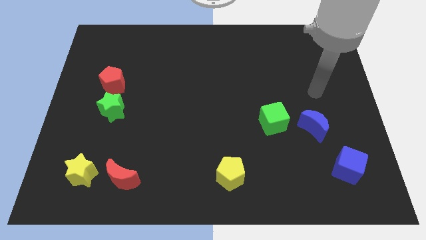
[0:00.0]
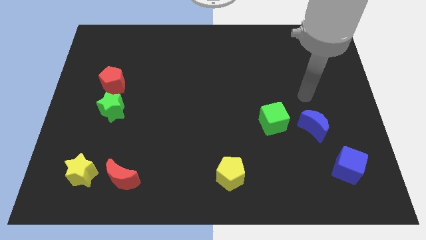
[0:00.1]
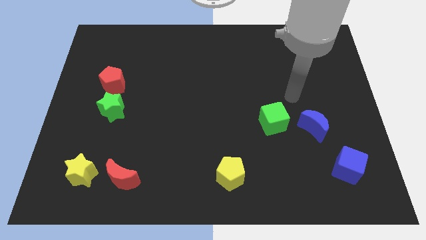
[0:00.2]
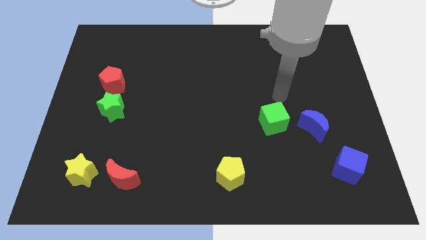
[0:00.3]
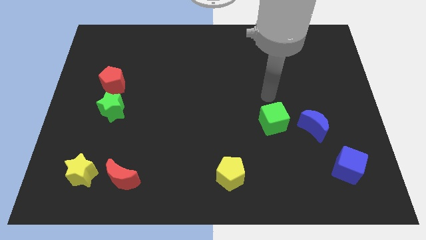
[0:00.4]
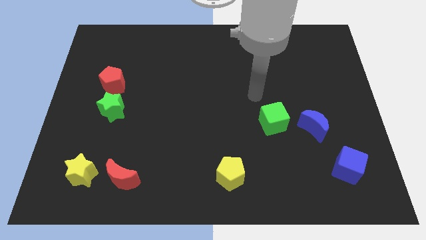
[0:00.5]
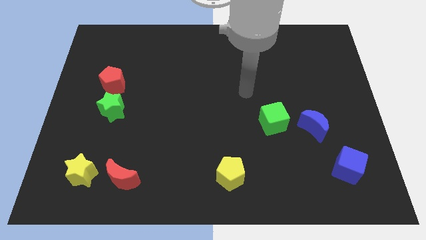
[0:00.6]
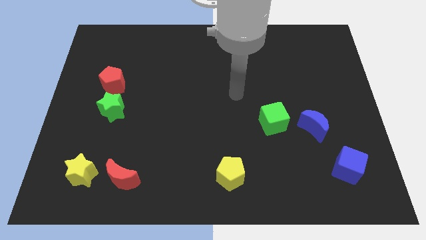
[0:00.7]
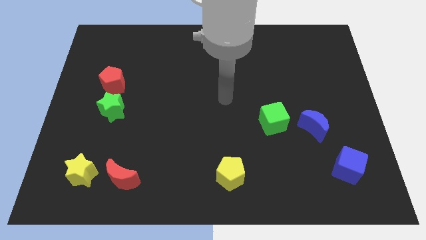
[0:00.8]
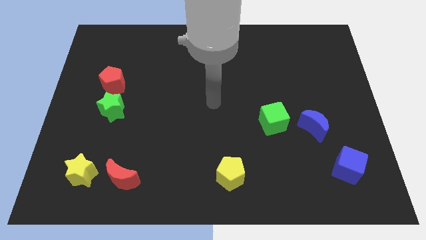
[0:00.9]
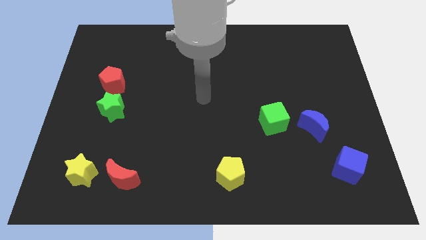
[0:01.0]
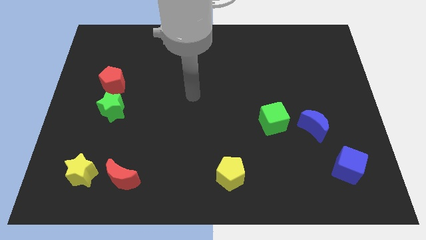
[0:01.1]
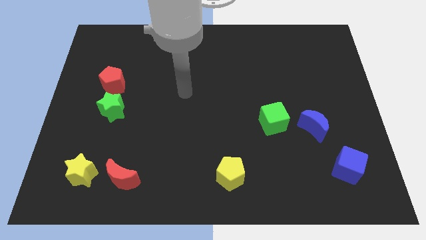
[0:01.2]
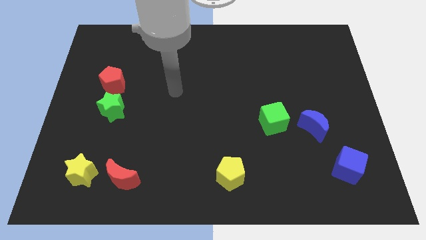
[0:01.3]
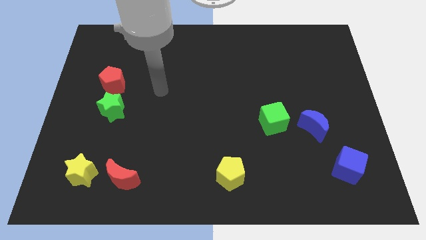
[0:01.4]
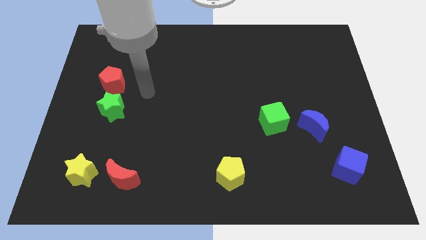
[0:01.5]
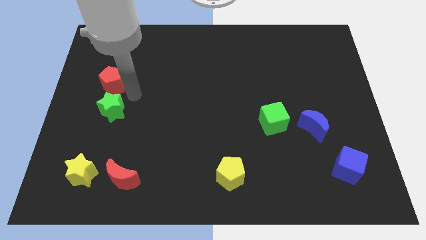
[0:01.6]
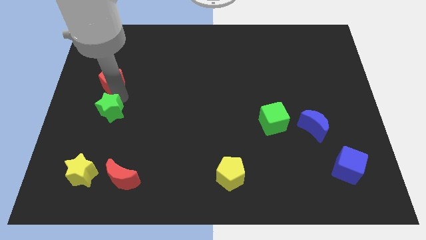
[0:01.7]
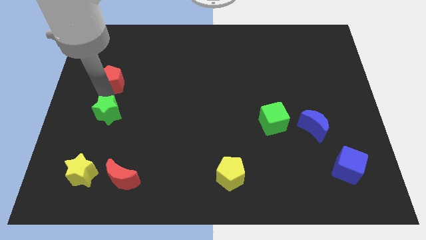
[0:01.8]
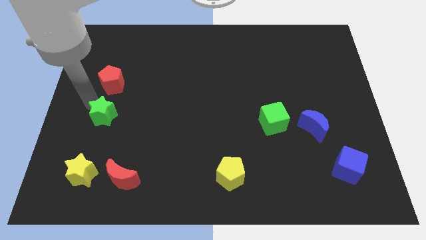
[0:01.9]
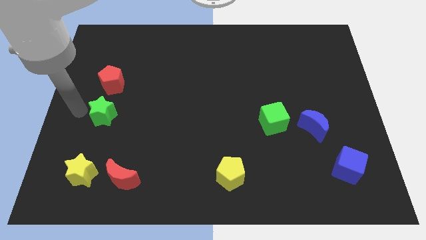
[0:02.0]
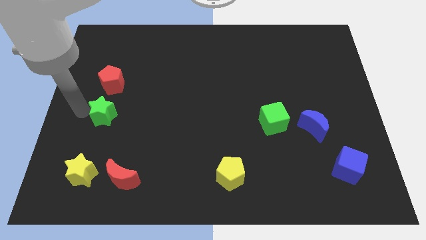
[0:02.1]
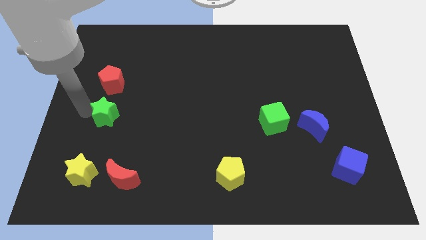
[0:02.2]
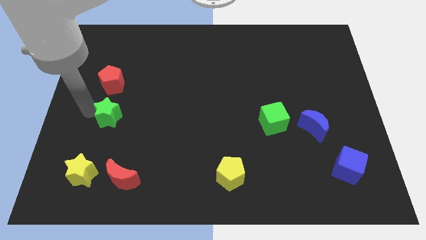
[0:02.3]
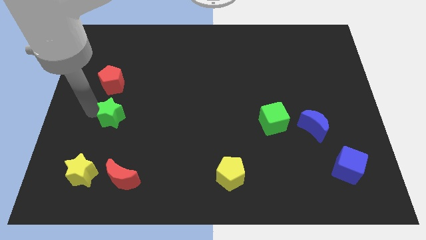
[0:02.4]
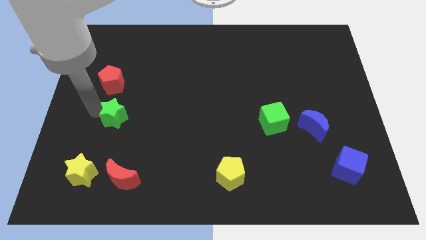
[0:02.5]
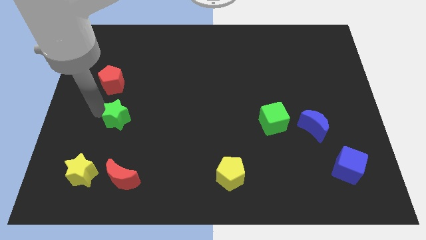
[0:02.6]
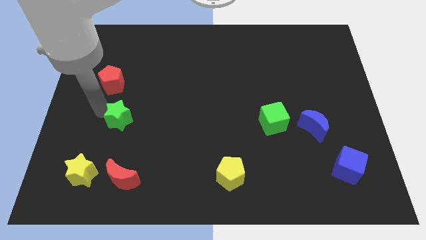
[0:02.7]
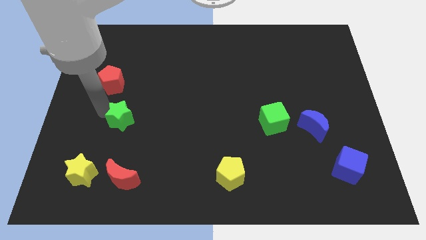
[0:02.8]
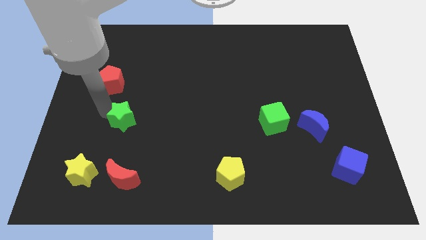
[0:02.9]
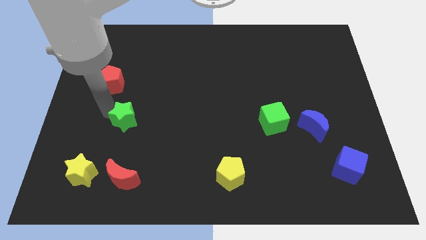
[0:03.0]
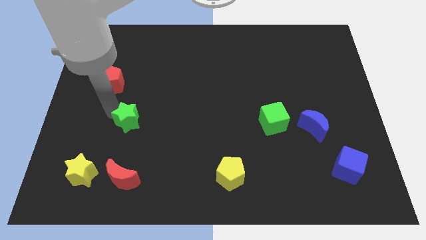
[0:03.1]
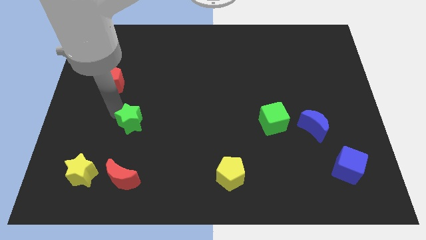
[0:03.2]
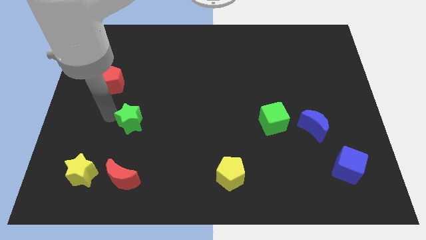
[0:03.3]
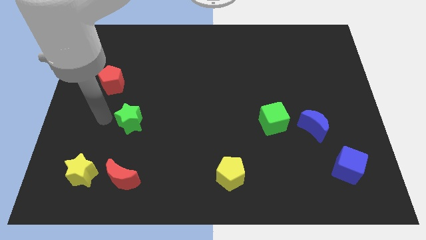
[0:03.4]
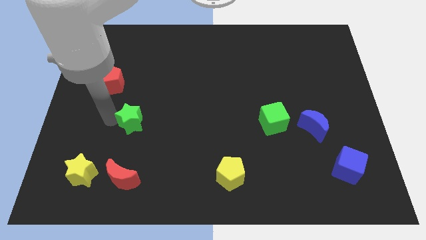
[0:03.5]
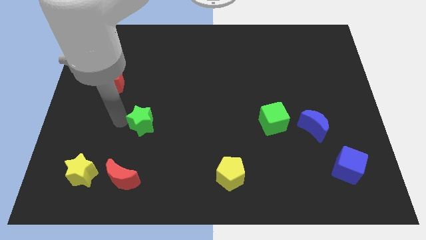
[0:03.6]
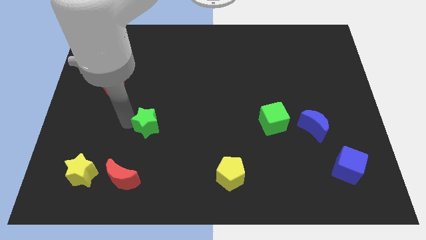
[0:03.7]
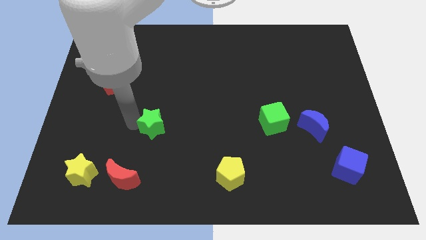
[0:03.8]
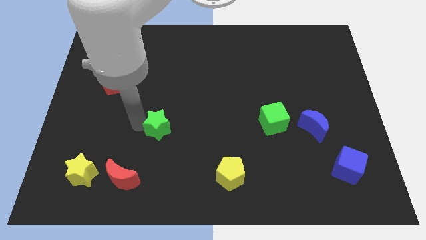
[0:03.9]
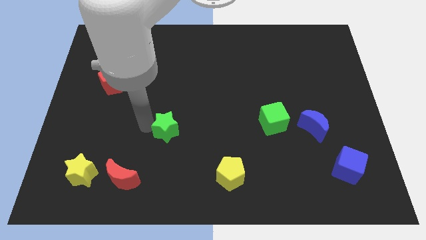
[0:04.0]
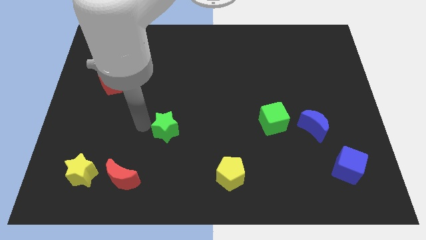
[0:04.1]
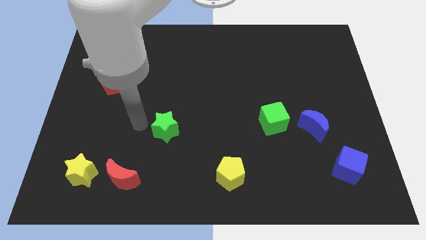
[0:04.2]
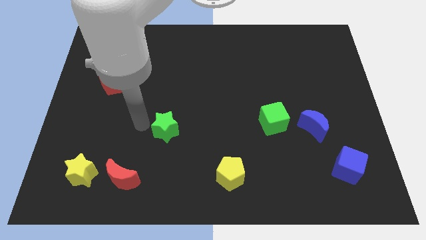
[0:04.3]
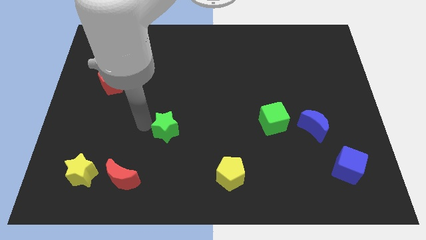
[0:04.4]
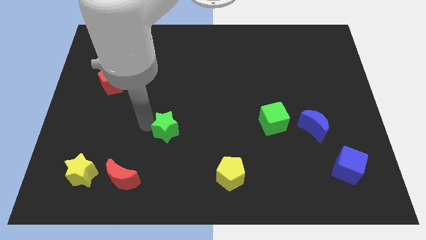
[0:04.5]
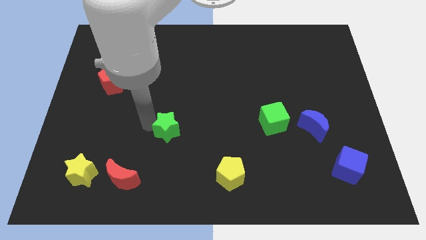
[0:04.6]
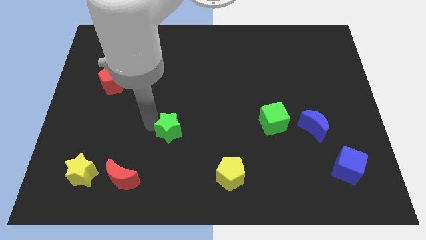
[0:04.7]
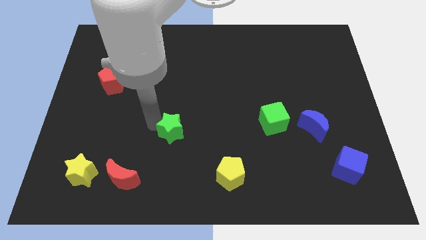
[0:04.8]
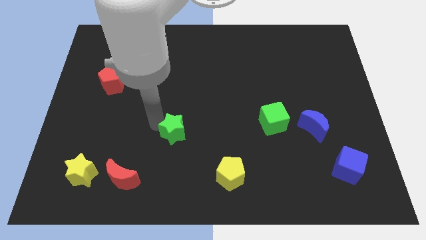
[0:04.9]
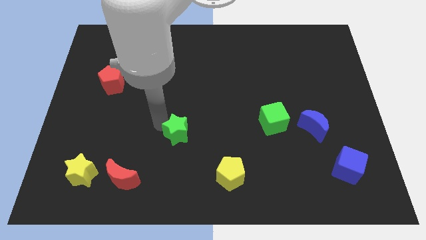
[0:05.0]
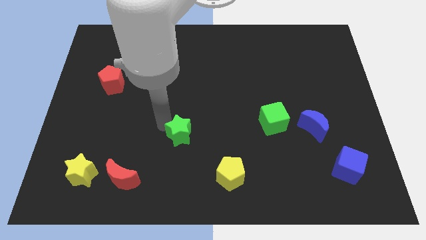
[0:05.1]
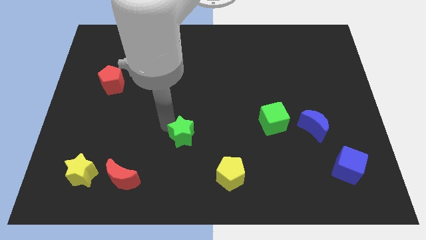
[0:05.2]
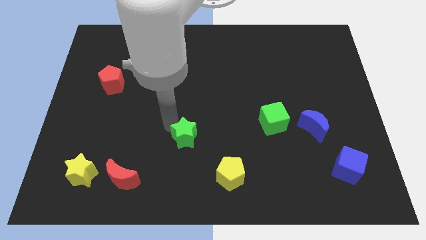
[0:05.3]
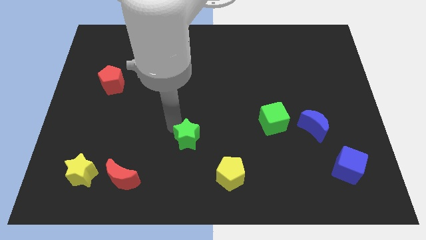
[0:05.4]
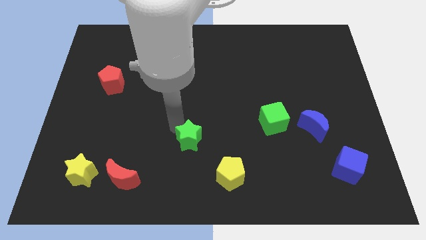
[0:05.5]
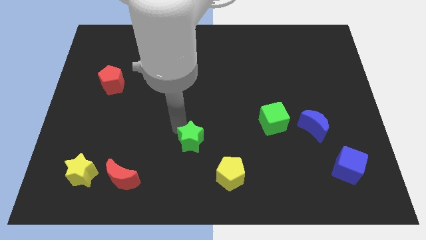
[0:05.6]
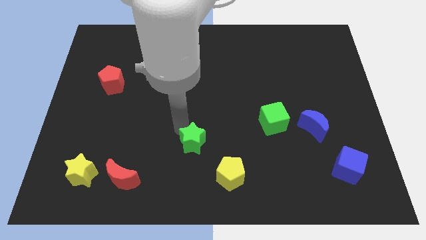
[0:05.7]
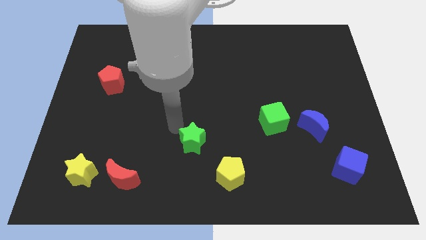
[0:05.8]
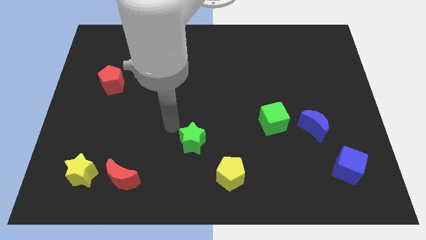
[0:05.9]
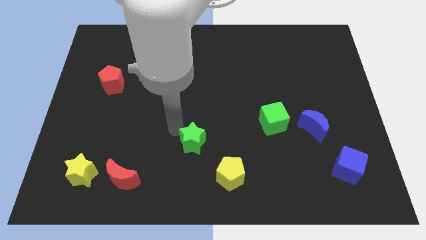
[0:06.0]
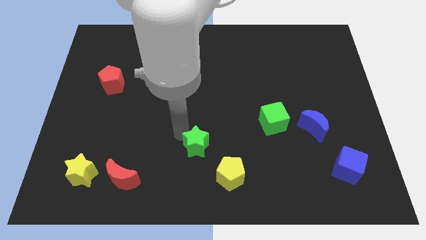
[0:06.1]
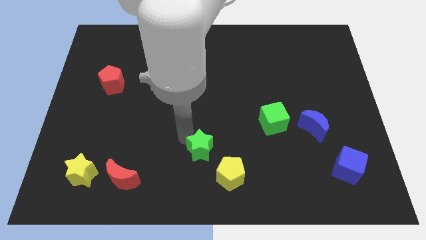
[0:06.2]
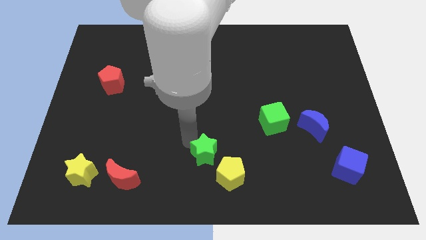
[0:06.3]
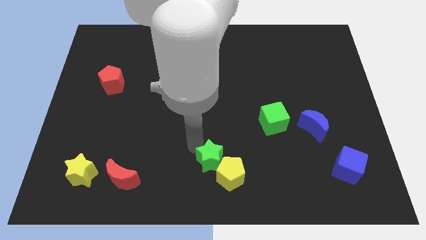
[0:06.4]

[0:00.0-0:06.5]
move the green star next to the yellow pentagon
